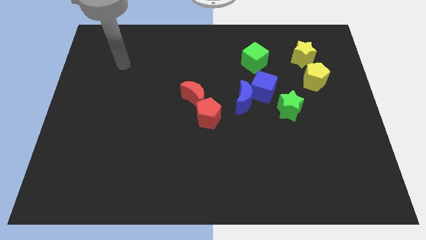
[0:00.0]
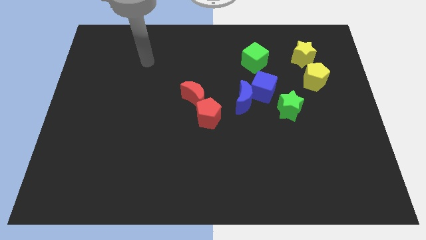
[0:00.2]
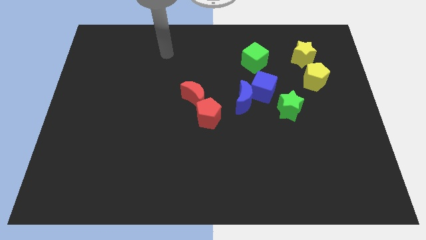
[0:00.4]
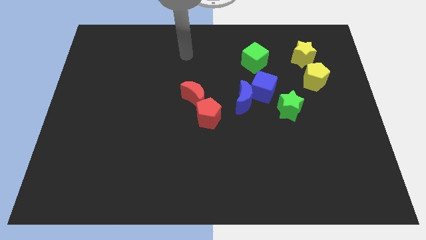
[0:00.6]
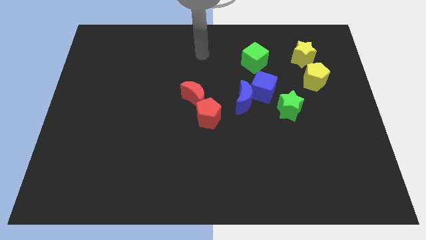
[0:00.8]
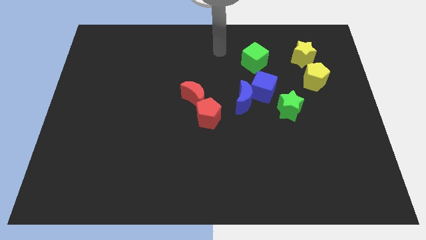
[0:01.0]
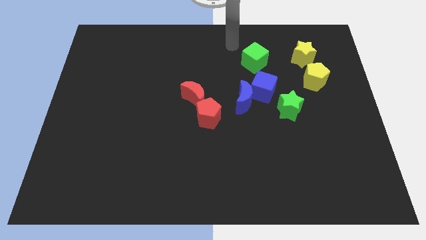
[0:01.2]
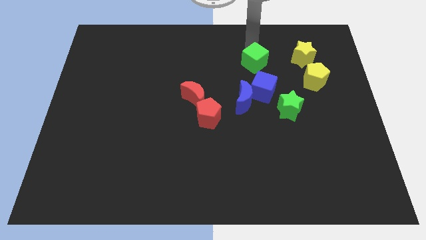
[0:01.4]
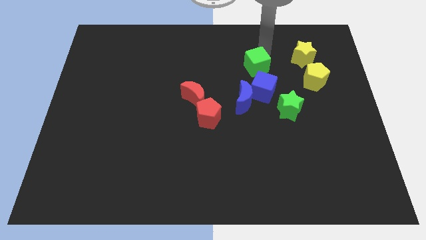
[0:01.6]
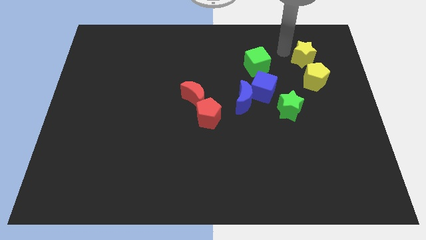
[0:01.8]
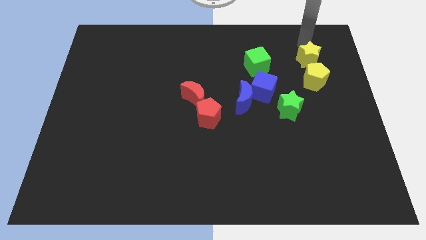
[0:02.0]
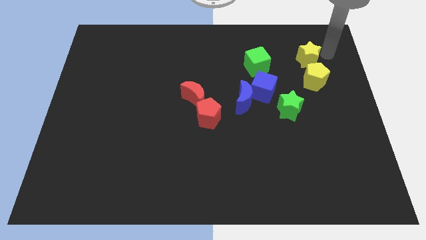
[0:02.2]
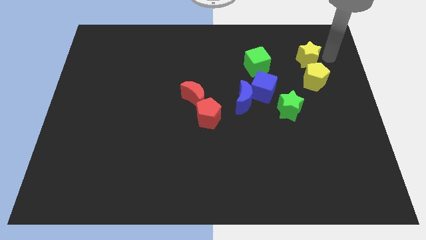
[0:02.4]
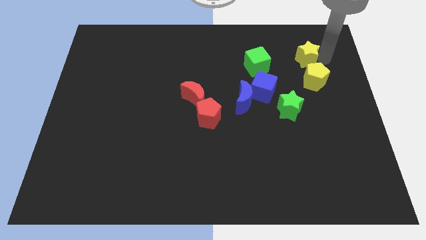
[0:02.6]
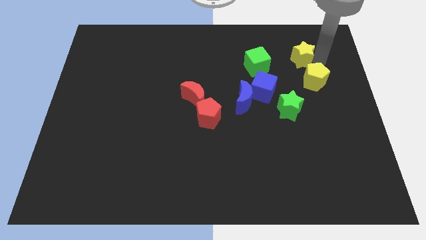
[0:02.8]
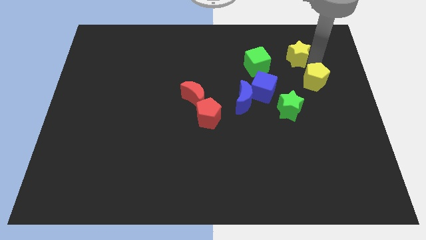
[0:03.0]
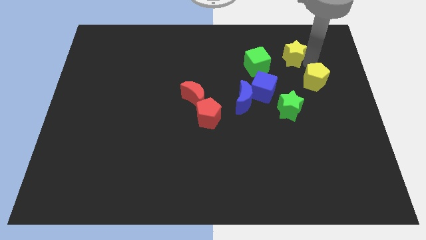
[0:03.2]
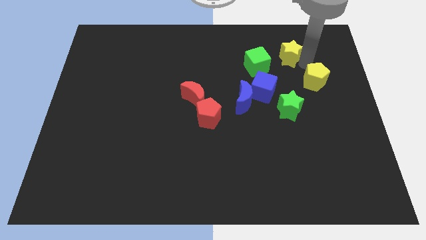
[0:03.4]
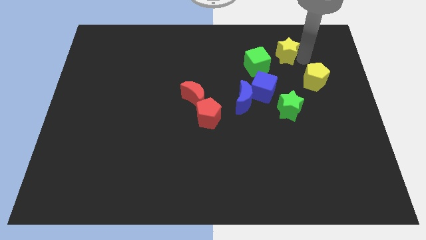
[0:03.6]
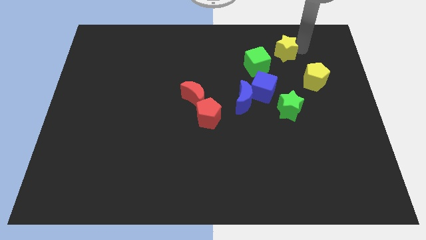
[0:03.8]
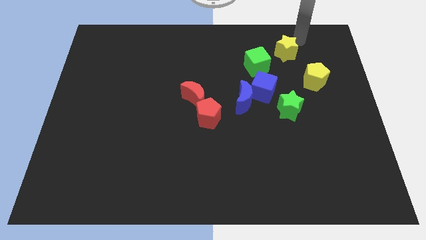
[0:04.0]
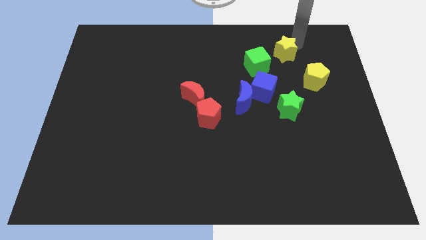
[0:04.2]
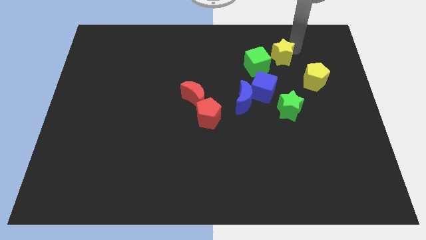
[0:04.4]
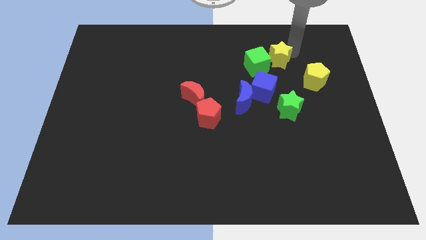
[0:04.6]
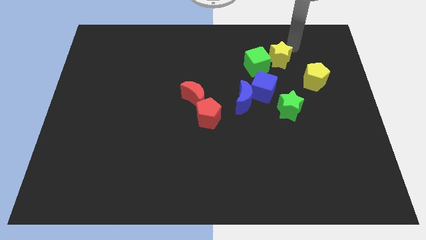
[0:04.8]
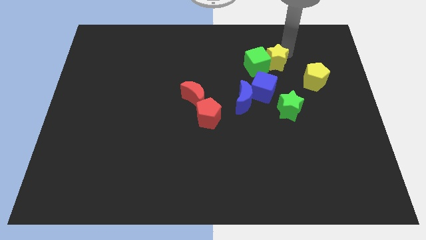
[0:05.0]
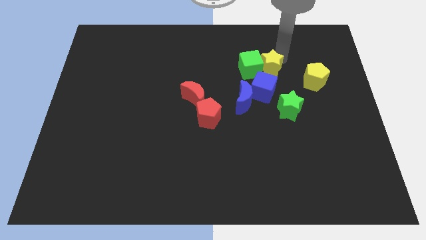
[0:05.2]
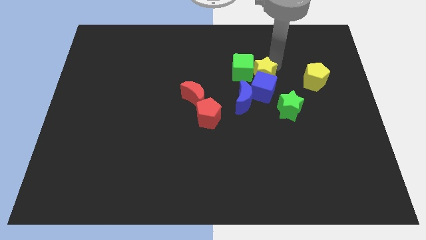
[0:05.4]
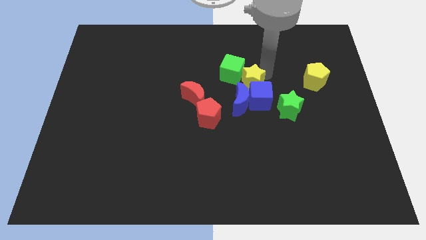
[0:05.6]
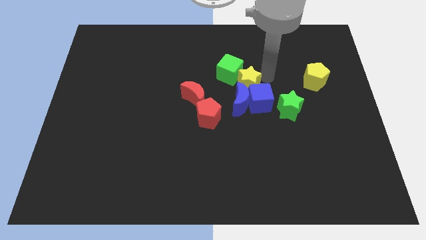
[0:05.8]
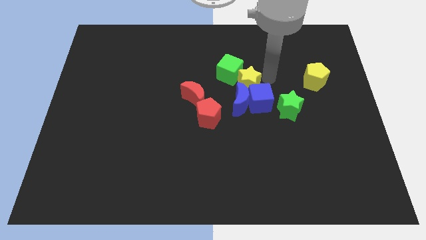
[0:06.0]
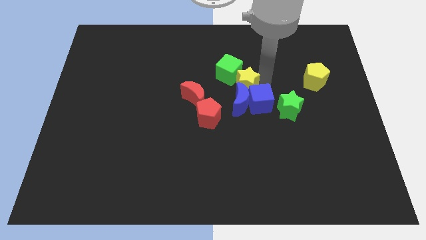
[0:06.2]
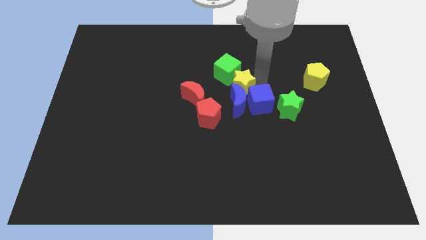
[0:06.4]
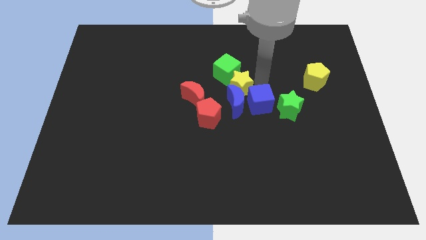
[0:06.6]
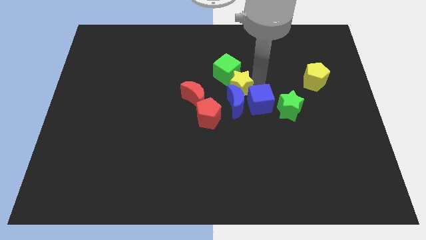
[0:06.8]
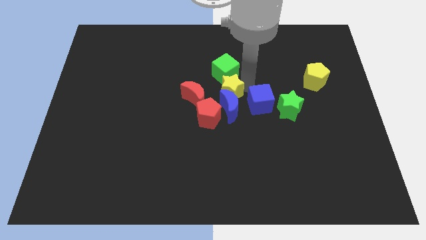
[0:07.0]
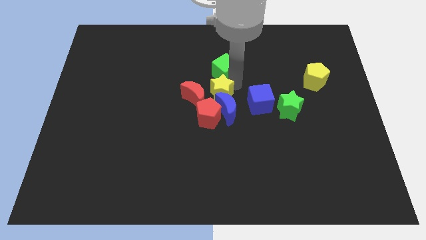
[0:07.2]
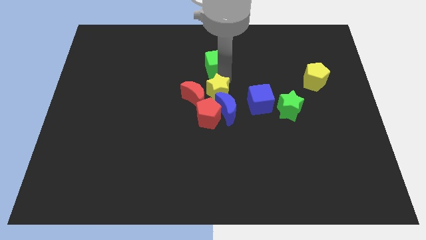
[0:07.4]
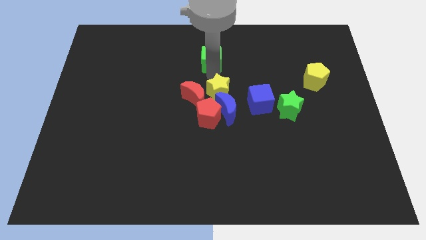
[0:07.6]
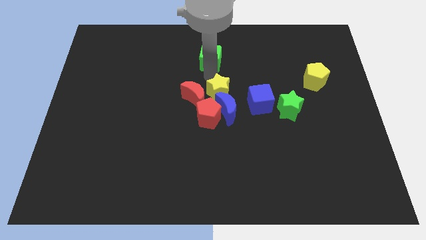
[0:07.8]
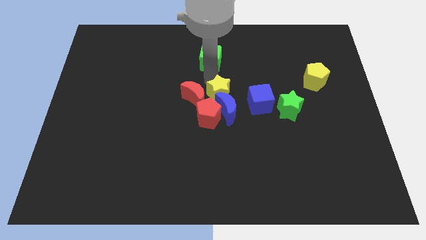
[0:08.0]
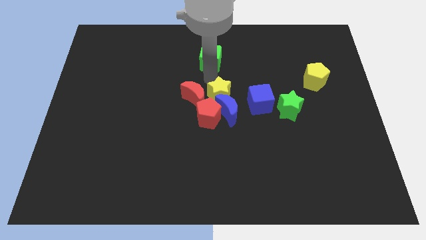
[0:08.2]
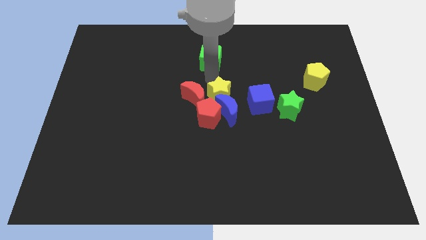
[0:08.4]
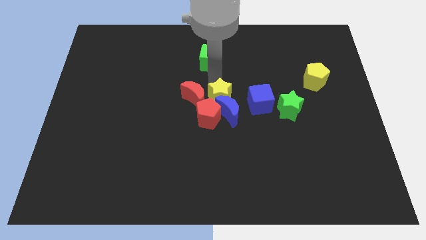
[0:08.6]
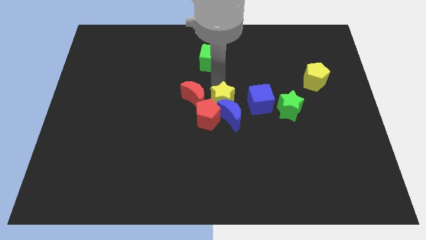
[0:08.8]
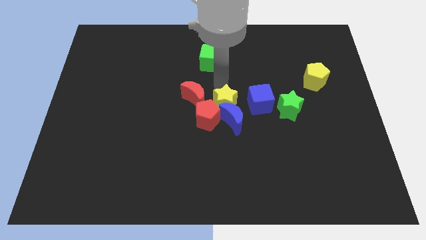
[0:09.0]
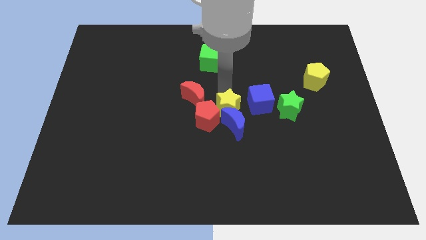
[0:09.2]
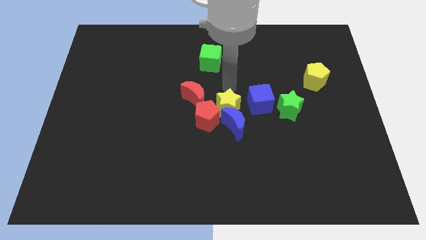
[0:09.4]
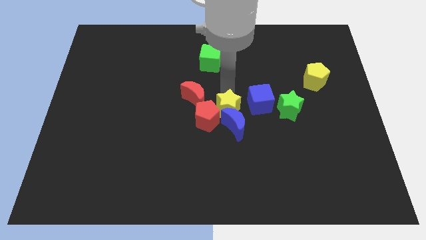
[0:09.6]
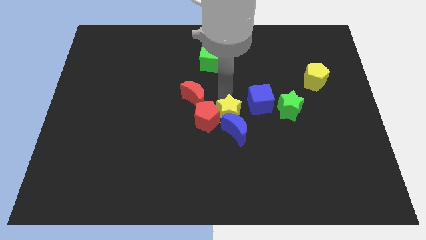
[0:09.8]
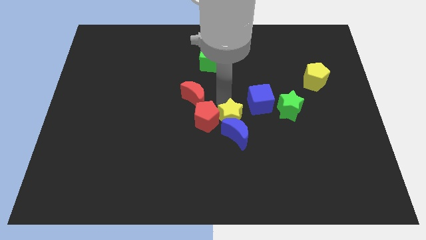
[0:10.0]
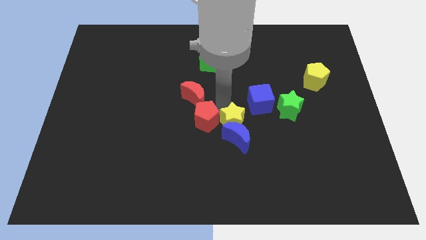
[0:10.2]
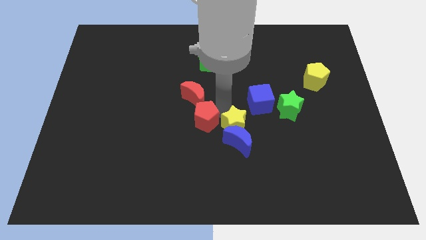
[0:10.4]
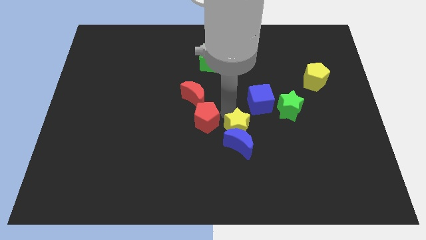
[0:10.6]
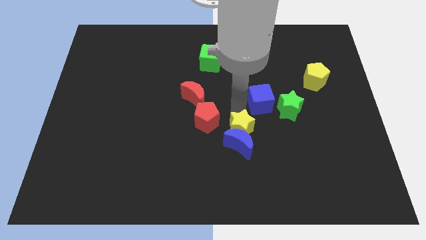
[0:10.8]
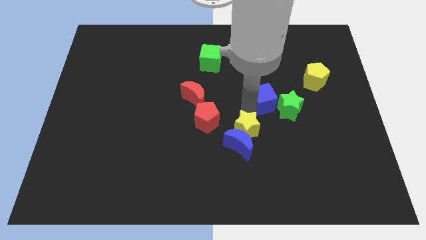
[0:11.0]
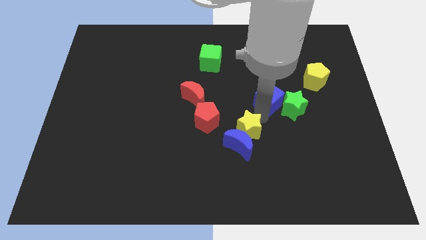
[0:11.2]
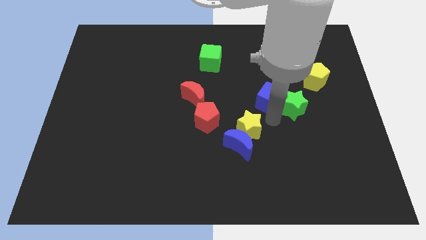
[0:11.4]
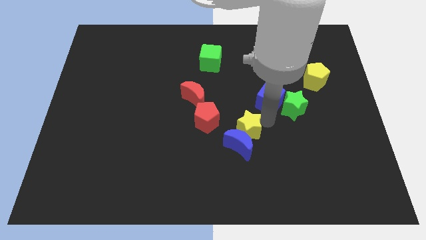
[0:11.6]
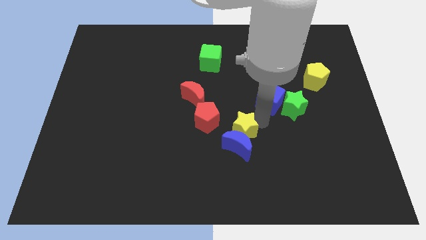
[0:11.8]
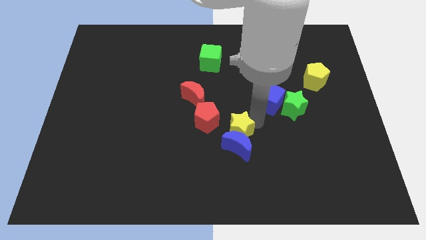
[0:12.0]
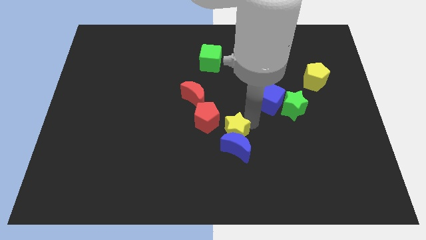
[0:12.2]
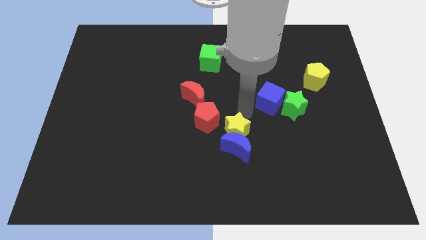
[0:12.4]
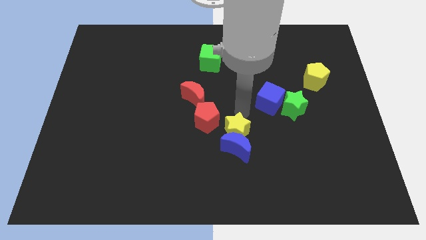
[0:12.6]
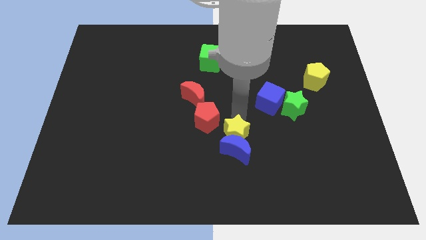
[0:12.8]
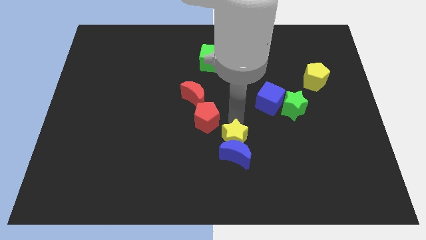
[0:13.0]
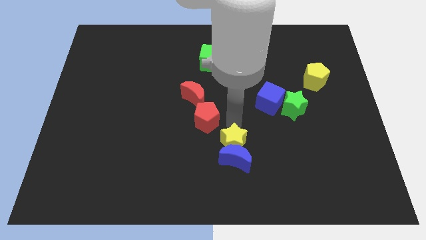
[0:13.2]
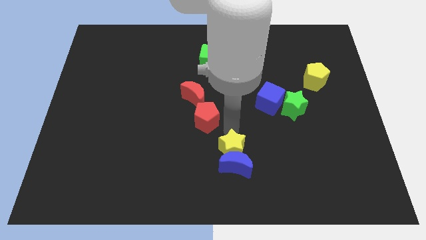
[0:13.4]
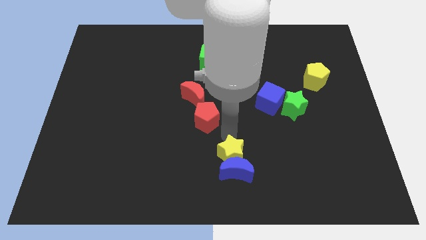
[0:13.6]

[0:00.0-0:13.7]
move the yellow star to the bottom side
